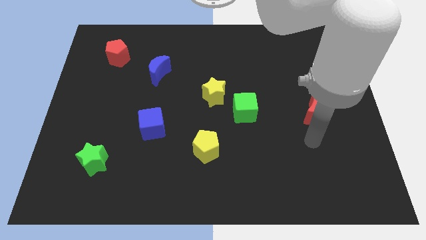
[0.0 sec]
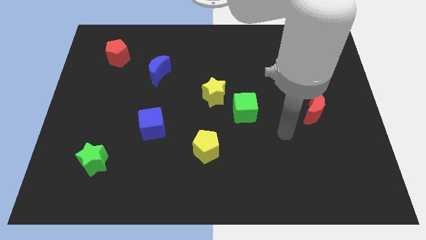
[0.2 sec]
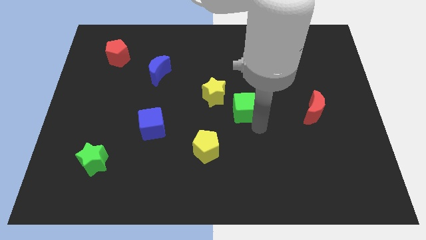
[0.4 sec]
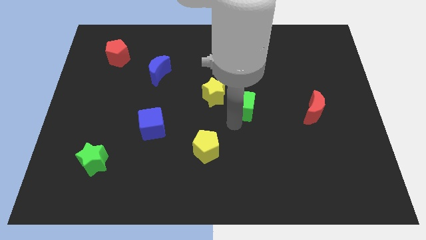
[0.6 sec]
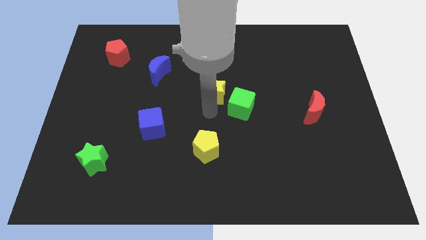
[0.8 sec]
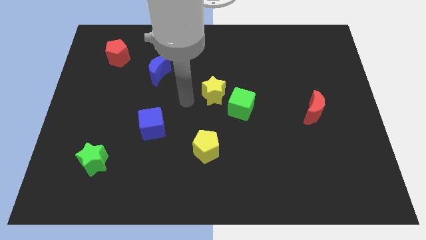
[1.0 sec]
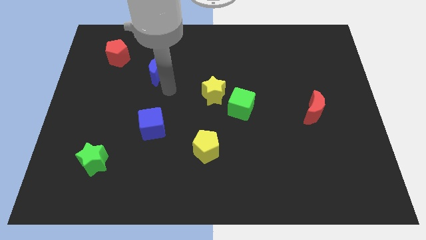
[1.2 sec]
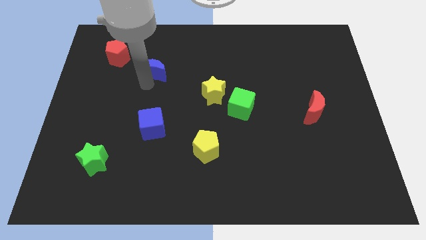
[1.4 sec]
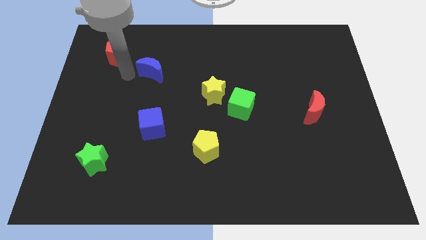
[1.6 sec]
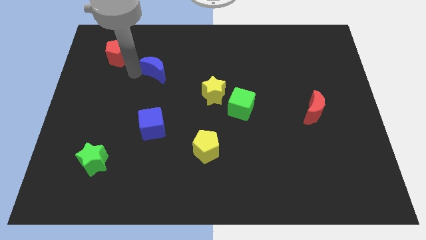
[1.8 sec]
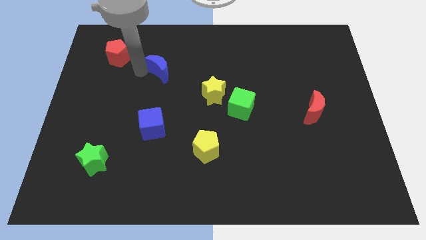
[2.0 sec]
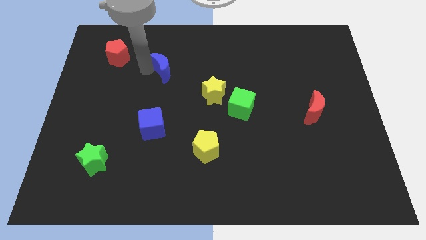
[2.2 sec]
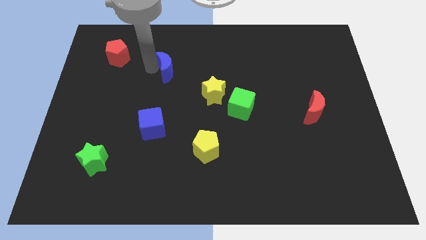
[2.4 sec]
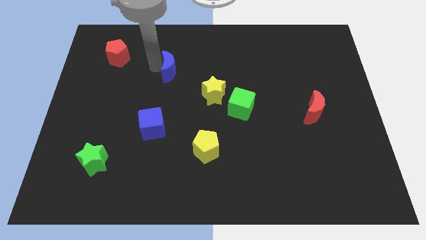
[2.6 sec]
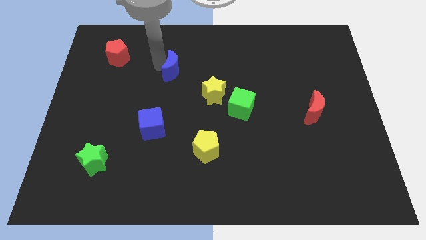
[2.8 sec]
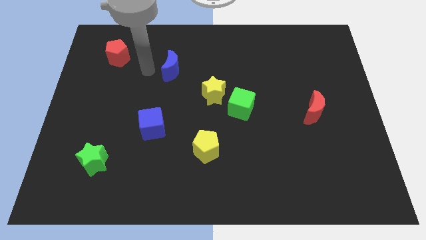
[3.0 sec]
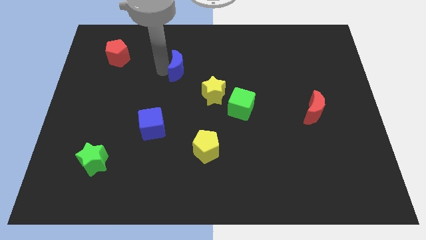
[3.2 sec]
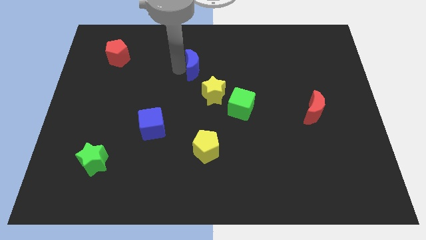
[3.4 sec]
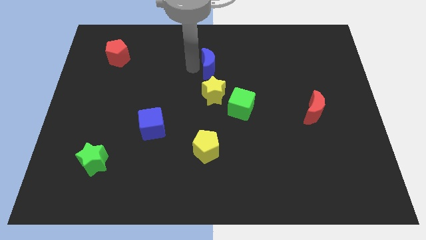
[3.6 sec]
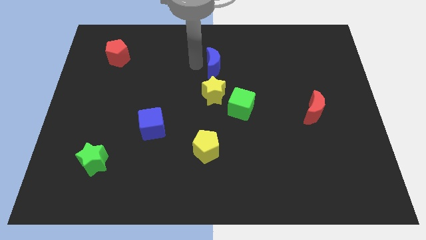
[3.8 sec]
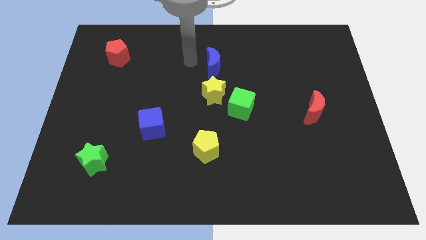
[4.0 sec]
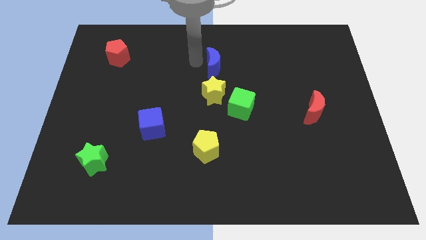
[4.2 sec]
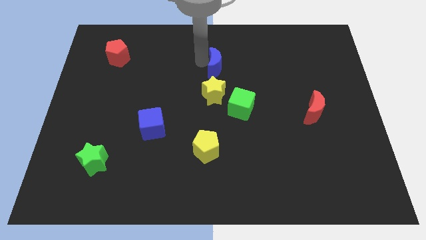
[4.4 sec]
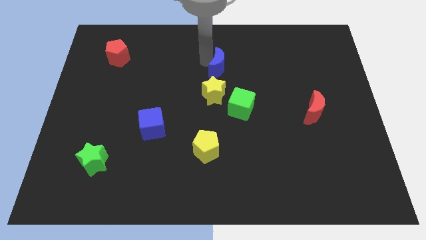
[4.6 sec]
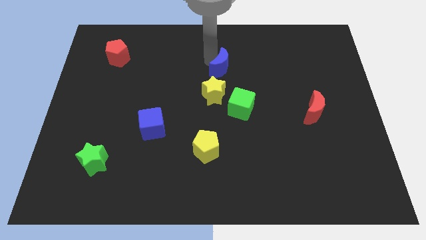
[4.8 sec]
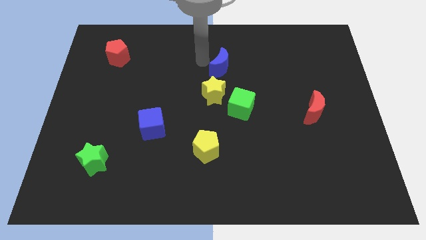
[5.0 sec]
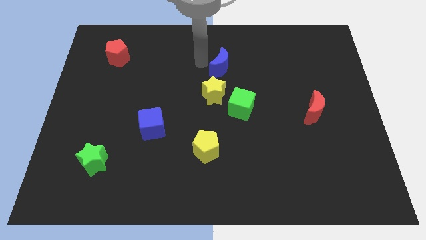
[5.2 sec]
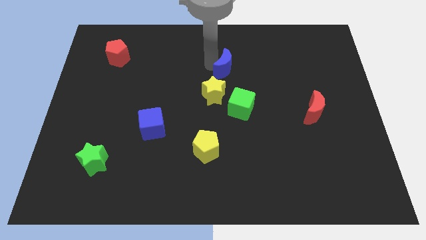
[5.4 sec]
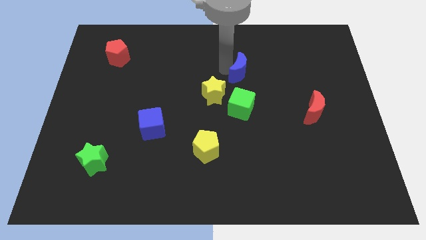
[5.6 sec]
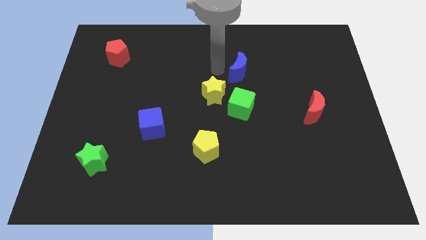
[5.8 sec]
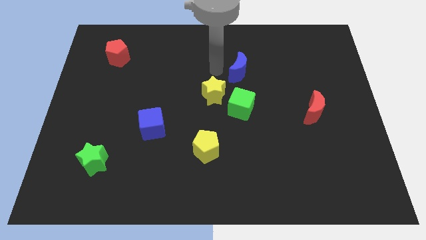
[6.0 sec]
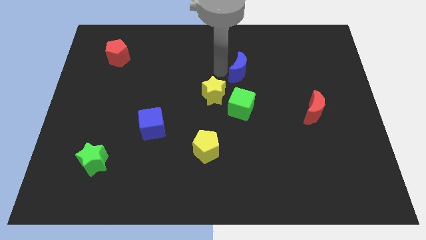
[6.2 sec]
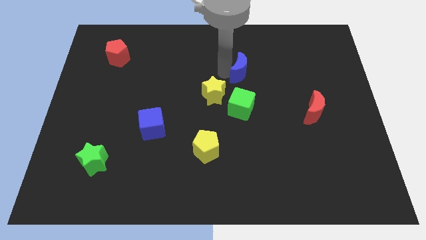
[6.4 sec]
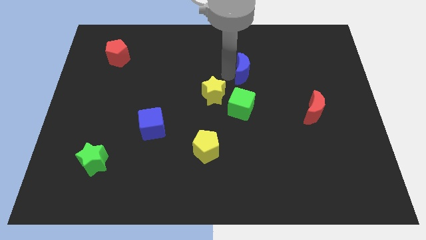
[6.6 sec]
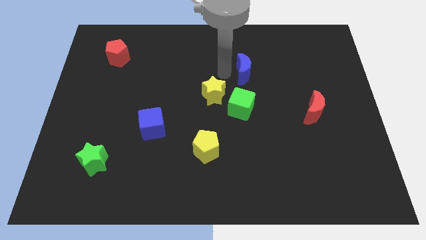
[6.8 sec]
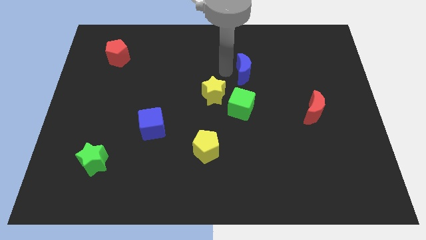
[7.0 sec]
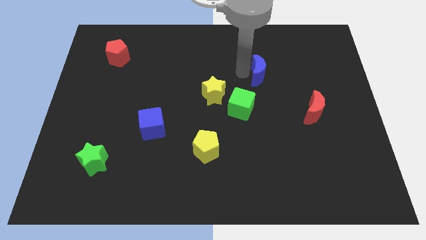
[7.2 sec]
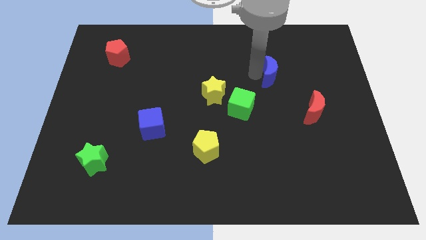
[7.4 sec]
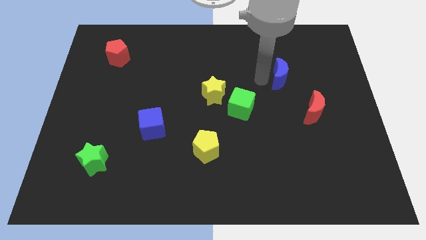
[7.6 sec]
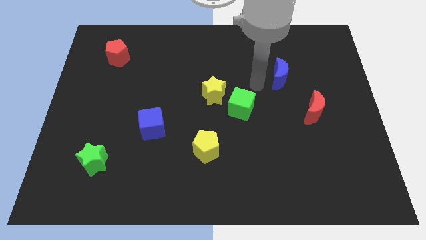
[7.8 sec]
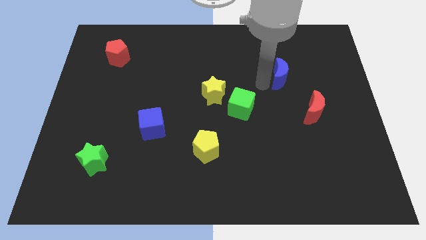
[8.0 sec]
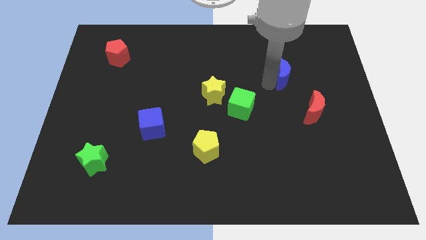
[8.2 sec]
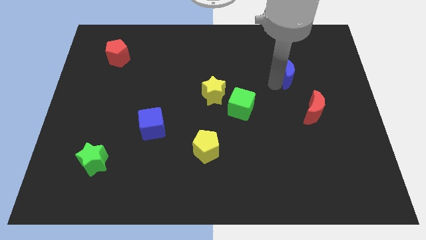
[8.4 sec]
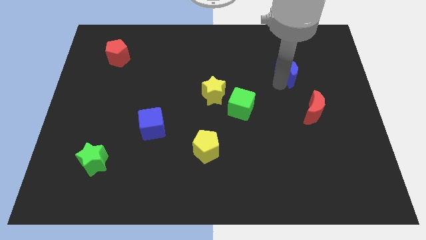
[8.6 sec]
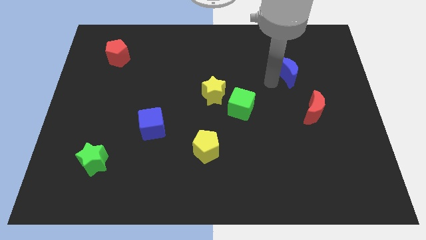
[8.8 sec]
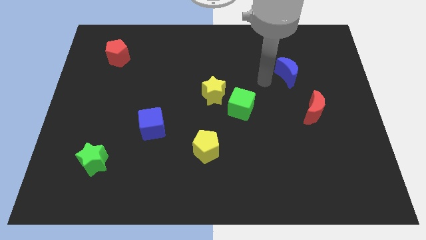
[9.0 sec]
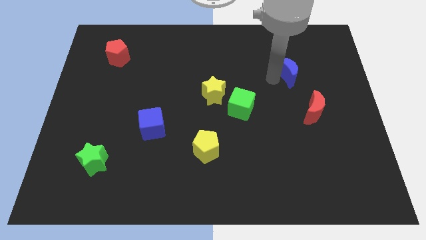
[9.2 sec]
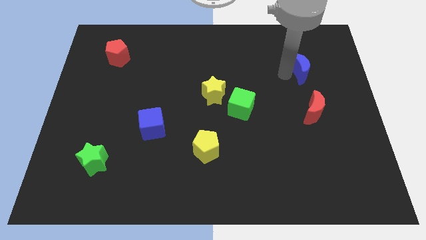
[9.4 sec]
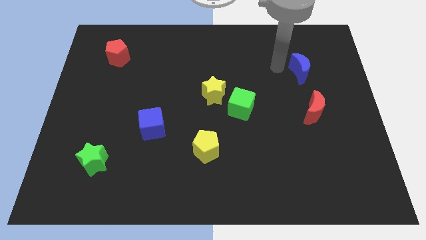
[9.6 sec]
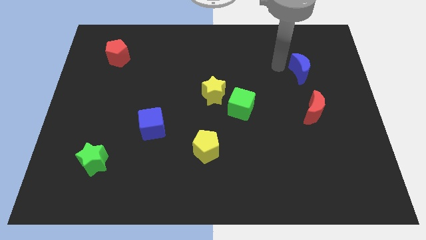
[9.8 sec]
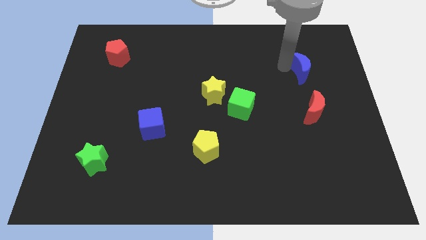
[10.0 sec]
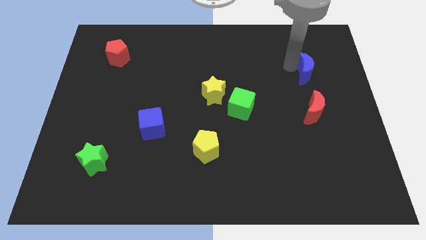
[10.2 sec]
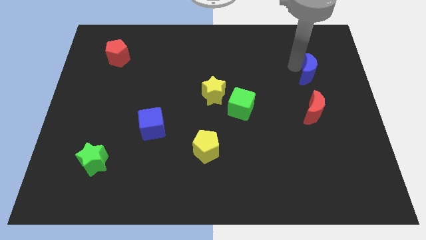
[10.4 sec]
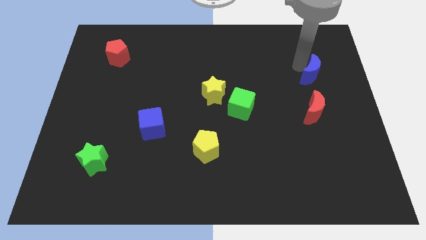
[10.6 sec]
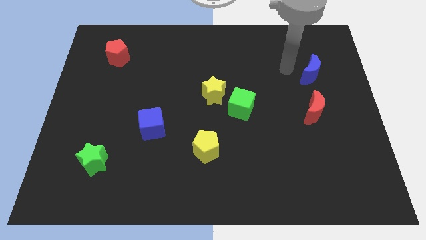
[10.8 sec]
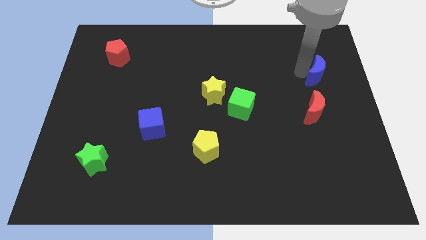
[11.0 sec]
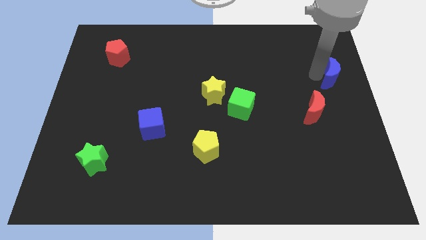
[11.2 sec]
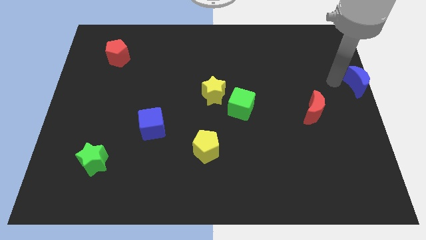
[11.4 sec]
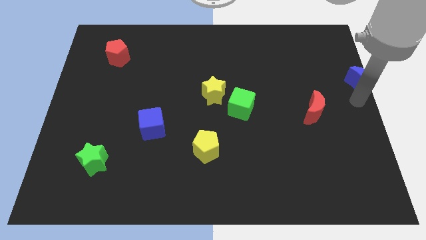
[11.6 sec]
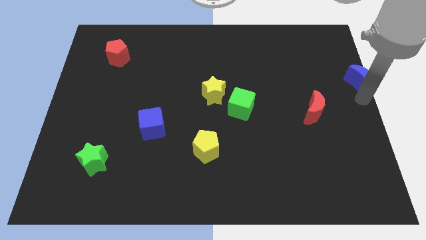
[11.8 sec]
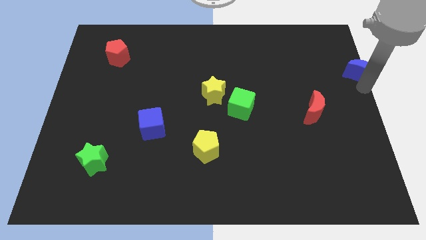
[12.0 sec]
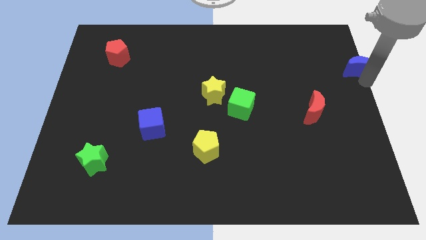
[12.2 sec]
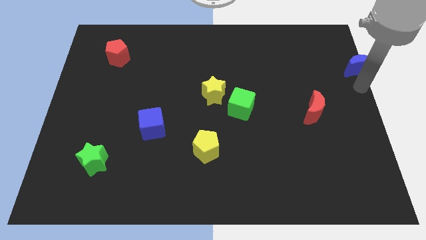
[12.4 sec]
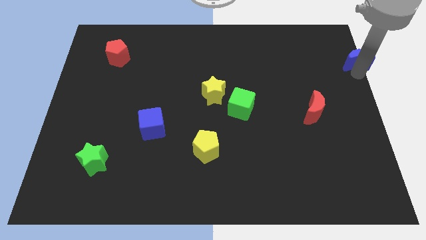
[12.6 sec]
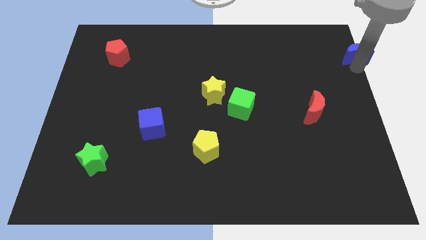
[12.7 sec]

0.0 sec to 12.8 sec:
put the blue moon to the top right corner
